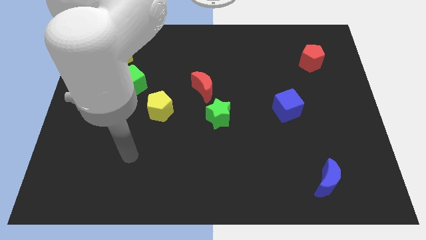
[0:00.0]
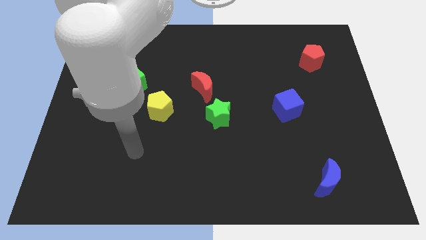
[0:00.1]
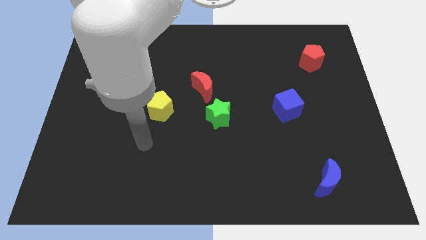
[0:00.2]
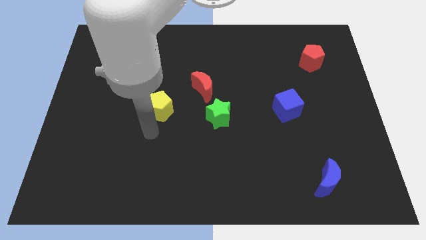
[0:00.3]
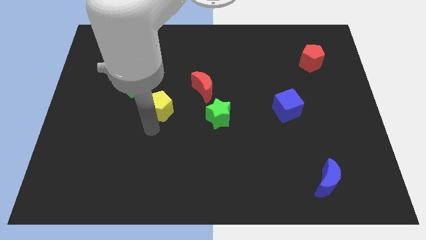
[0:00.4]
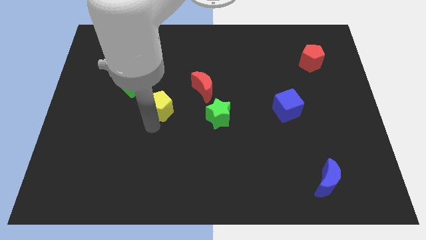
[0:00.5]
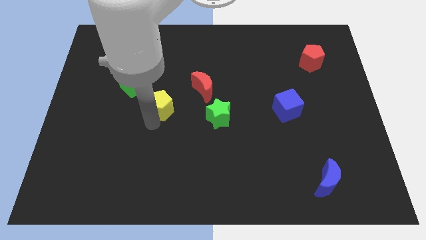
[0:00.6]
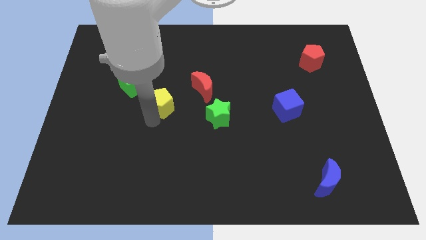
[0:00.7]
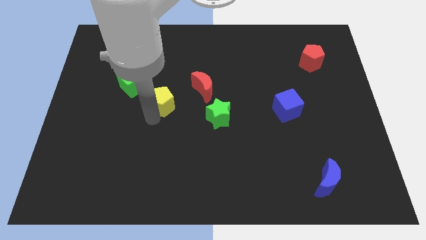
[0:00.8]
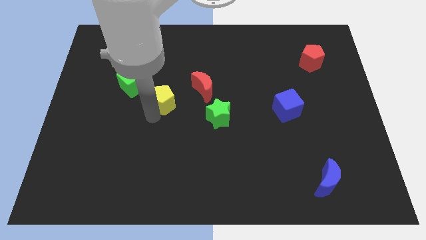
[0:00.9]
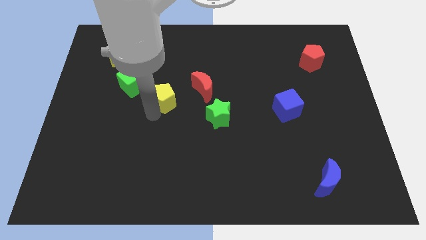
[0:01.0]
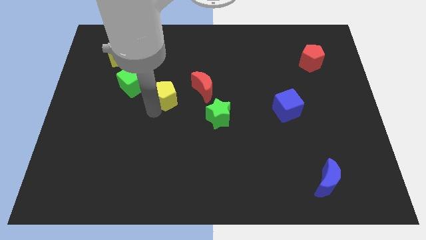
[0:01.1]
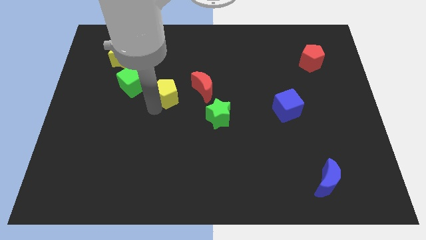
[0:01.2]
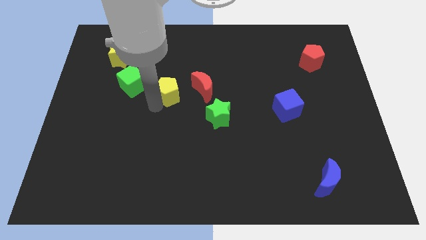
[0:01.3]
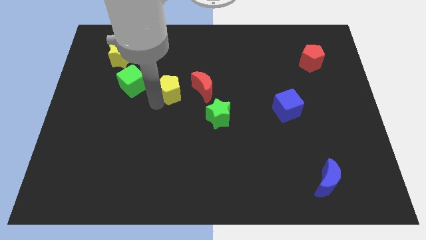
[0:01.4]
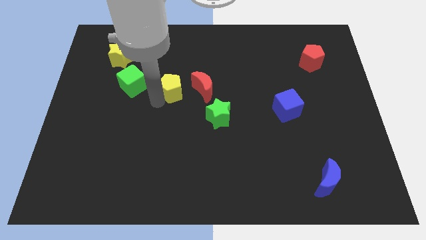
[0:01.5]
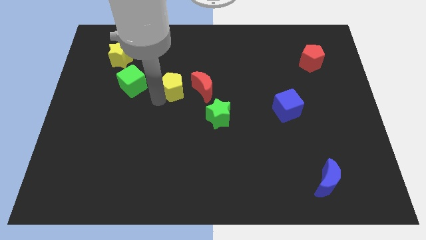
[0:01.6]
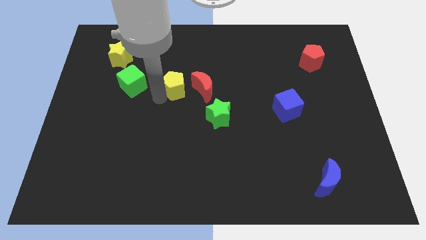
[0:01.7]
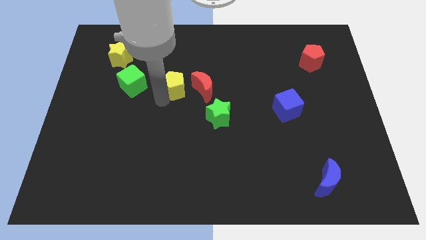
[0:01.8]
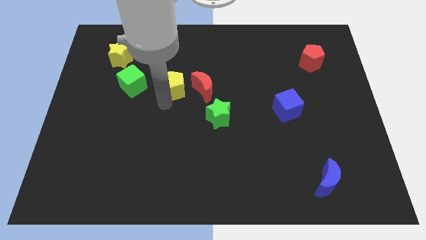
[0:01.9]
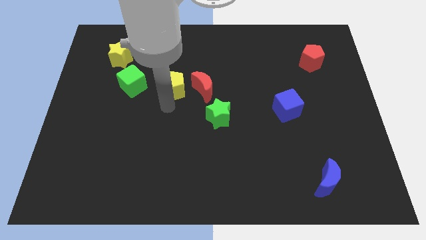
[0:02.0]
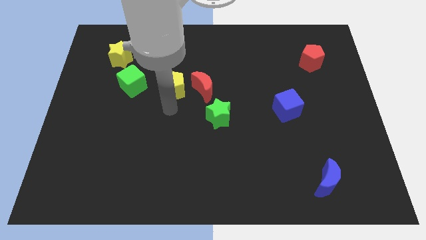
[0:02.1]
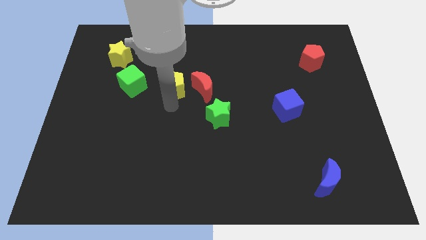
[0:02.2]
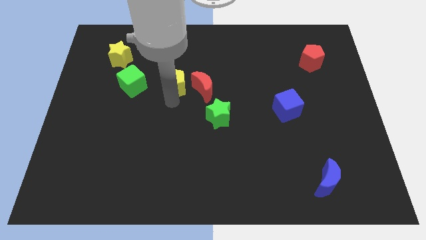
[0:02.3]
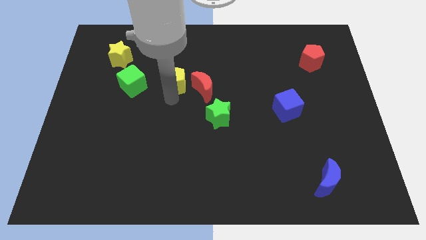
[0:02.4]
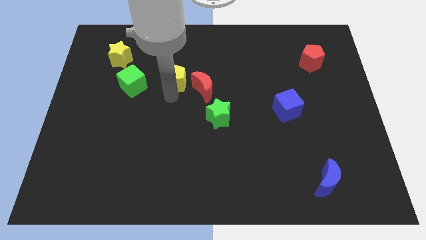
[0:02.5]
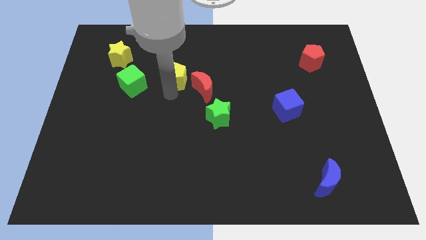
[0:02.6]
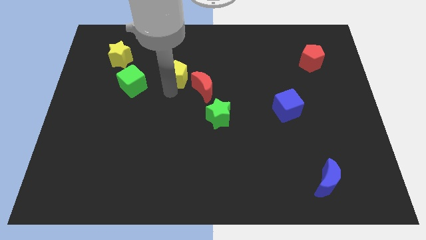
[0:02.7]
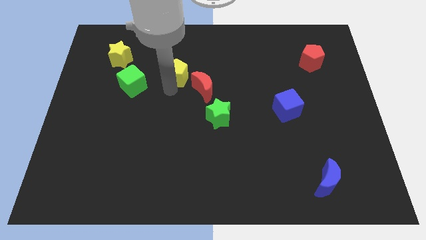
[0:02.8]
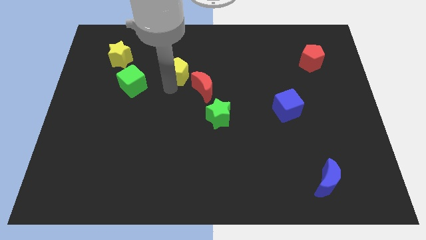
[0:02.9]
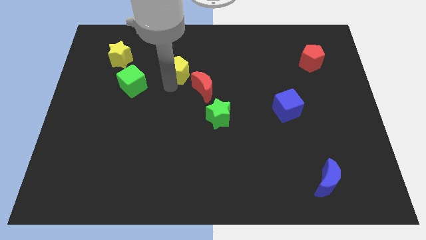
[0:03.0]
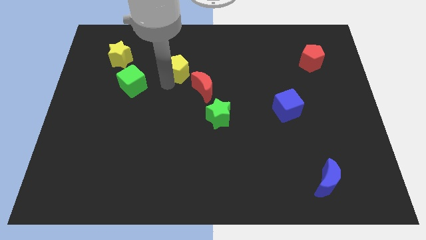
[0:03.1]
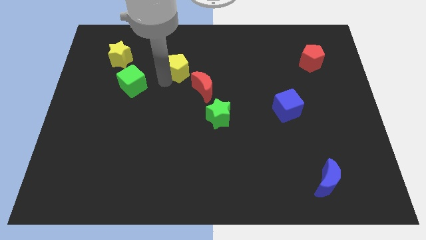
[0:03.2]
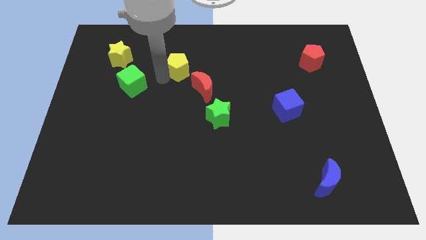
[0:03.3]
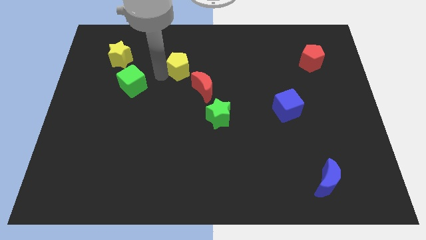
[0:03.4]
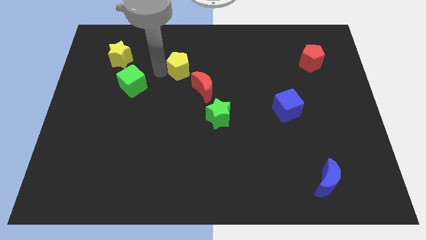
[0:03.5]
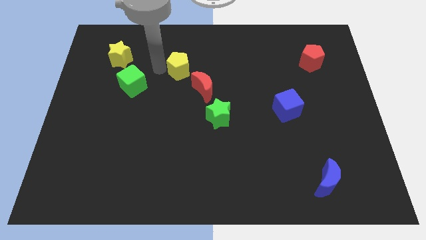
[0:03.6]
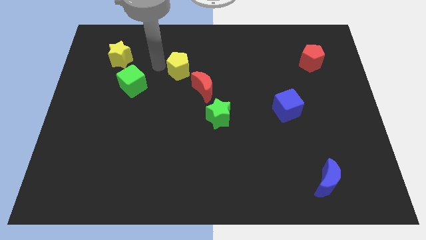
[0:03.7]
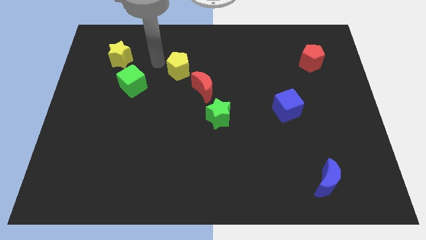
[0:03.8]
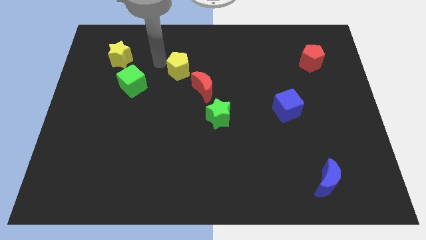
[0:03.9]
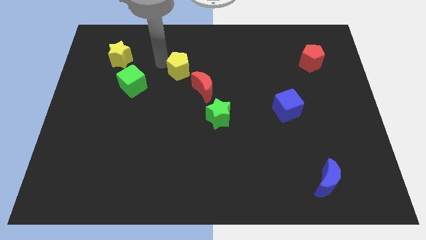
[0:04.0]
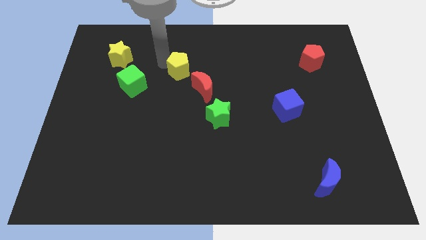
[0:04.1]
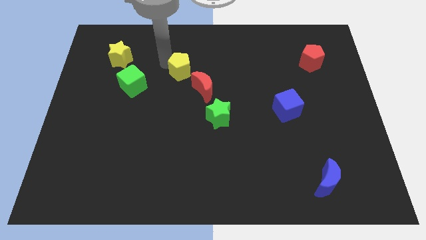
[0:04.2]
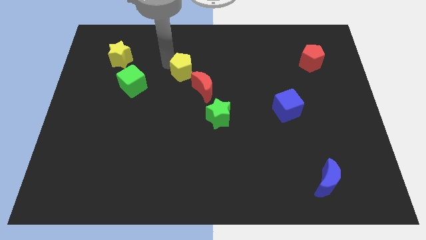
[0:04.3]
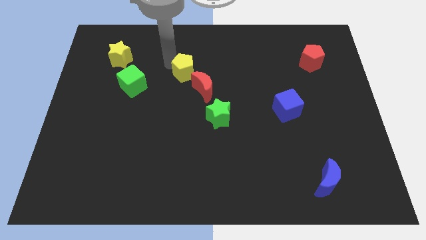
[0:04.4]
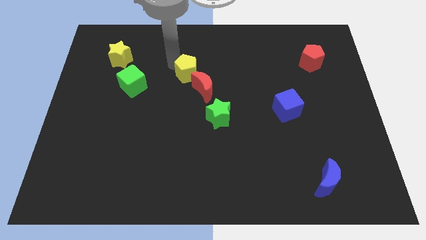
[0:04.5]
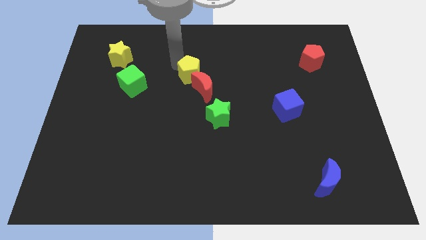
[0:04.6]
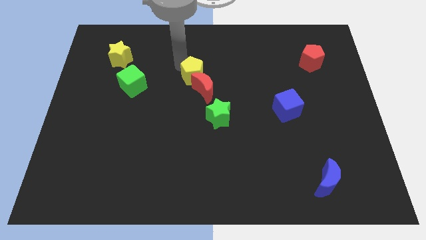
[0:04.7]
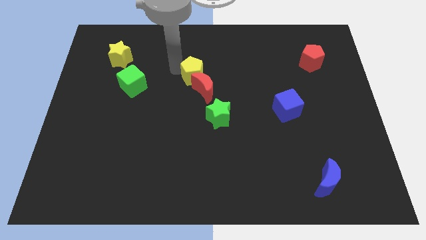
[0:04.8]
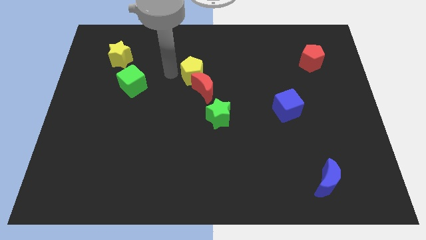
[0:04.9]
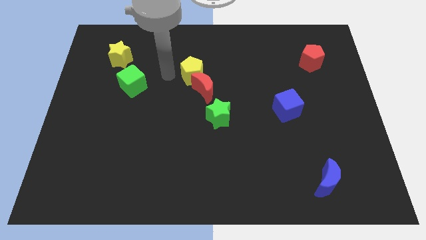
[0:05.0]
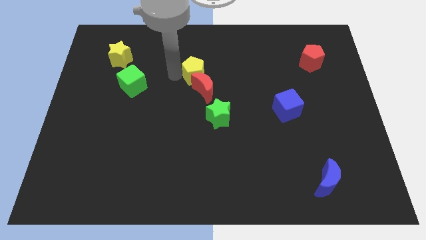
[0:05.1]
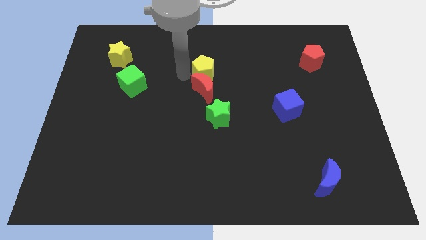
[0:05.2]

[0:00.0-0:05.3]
slide the yellow pentagon to the top right side of the red moon

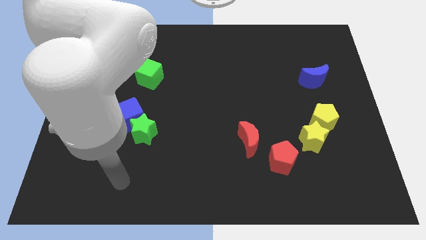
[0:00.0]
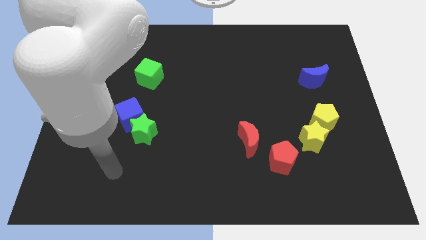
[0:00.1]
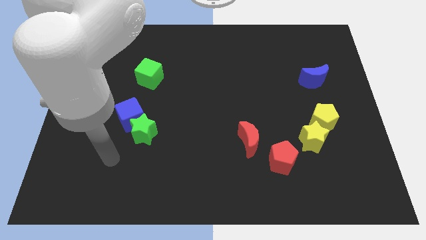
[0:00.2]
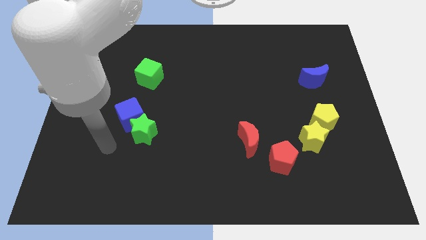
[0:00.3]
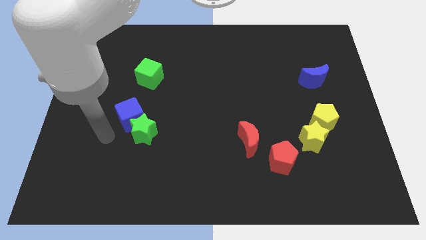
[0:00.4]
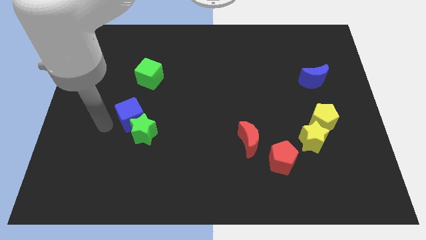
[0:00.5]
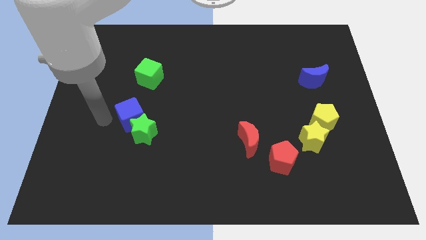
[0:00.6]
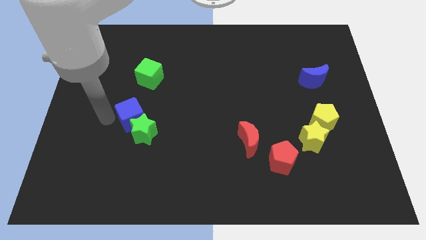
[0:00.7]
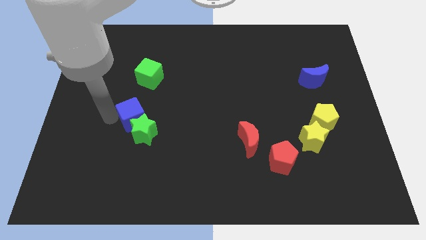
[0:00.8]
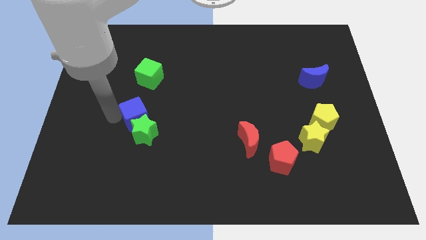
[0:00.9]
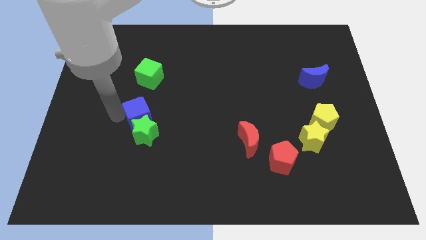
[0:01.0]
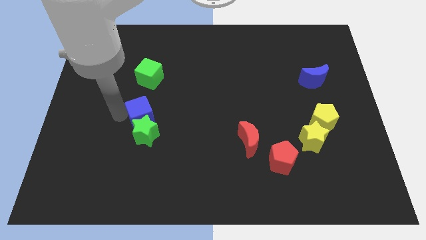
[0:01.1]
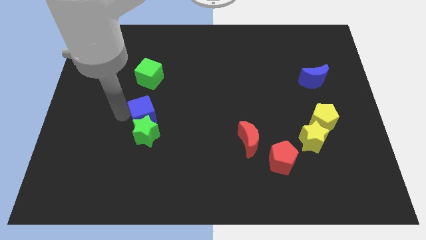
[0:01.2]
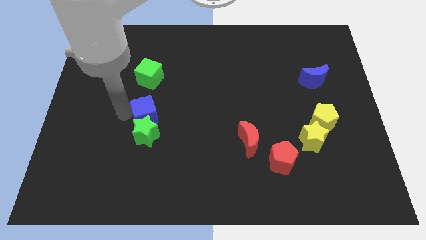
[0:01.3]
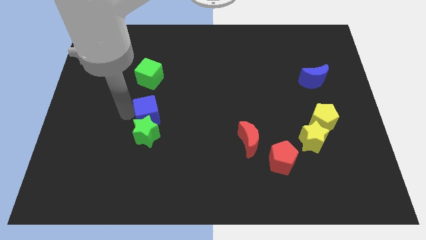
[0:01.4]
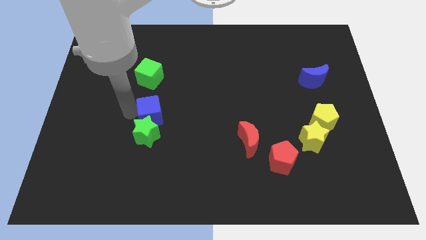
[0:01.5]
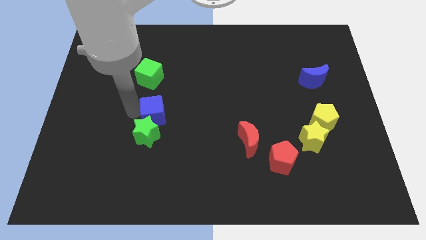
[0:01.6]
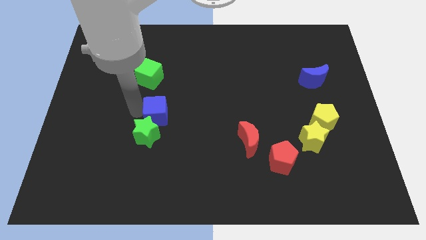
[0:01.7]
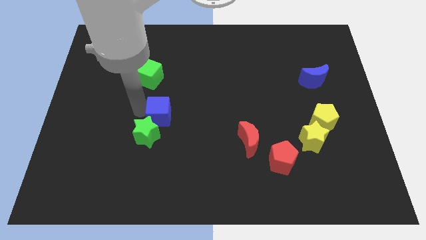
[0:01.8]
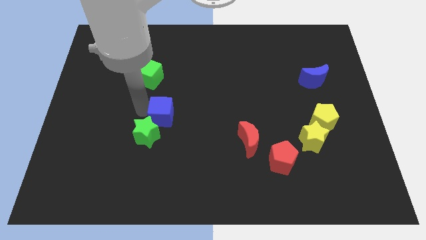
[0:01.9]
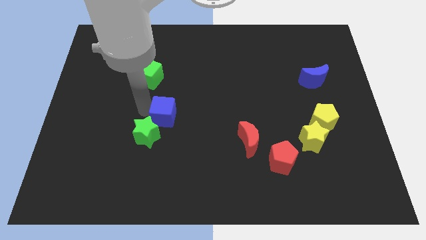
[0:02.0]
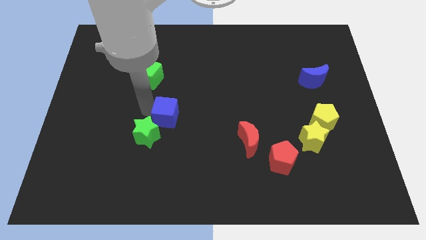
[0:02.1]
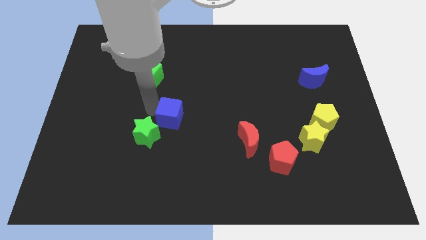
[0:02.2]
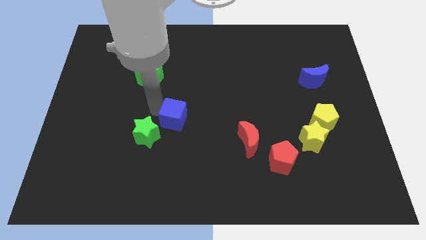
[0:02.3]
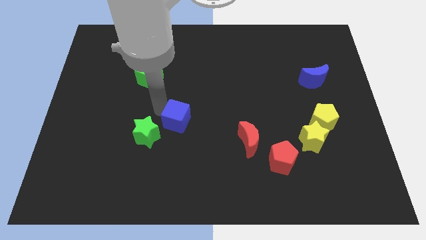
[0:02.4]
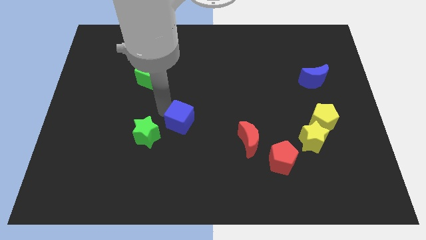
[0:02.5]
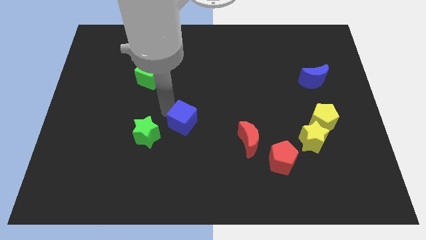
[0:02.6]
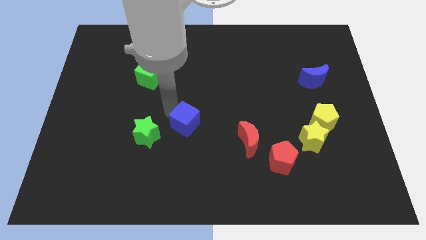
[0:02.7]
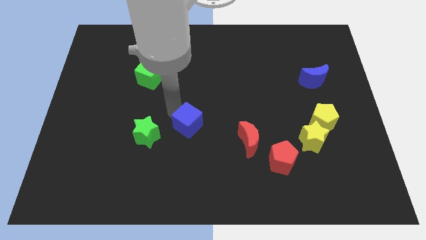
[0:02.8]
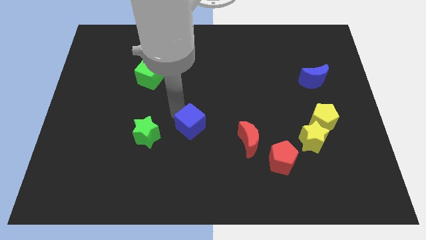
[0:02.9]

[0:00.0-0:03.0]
slide the blue cube to the left side of the red moon
